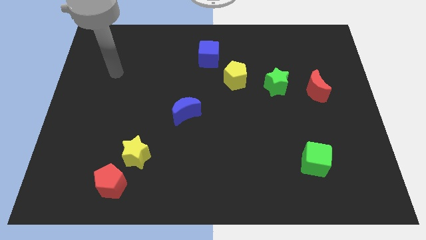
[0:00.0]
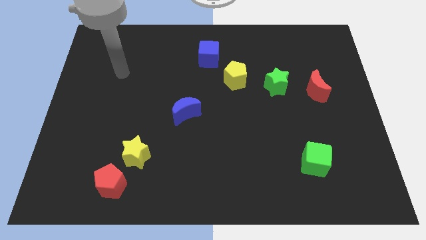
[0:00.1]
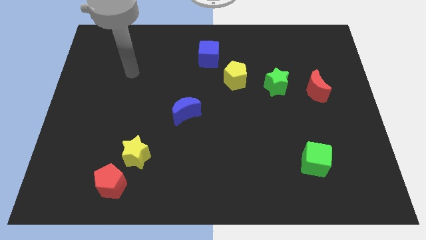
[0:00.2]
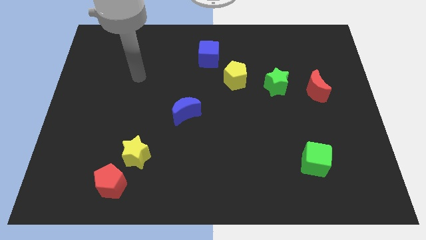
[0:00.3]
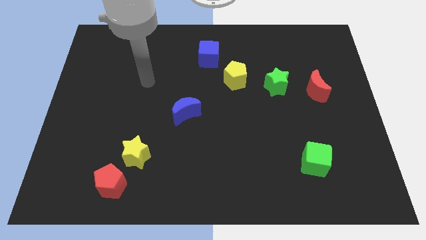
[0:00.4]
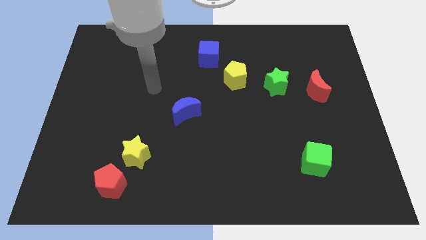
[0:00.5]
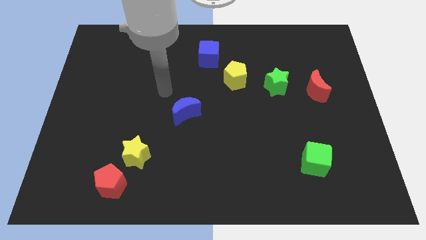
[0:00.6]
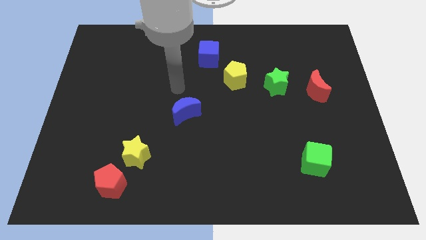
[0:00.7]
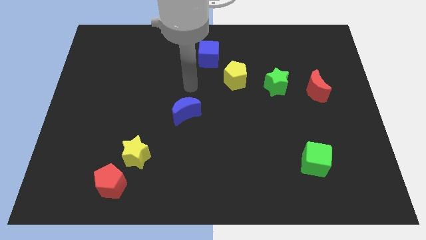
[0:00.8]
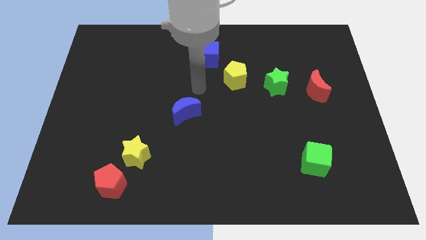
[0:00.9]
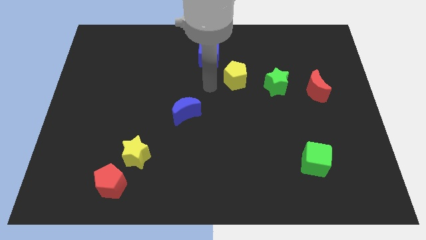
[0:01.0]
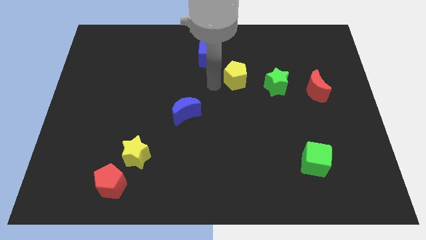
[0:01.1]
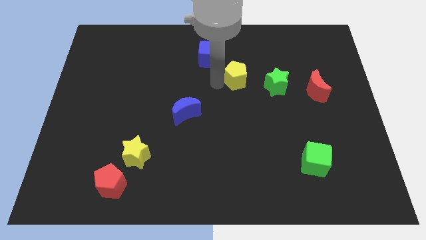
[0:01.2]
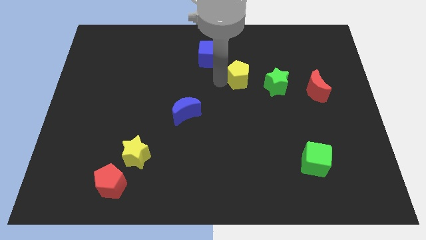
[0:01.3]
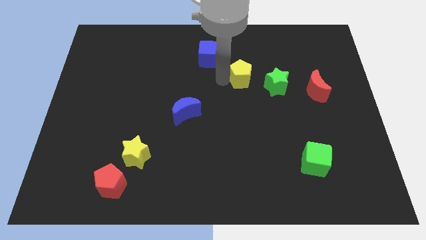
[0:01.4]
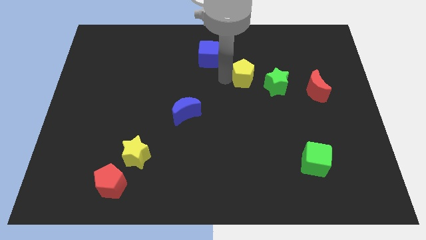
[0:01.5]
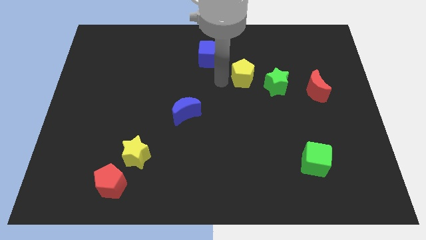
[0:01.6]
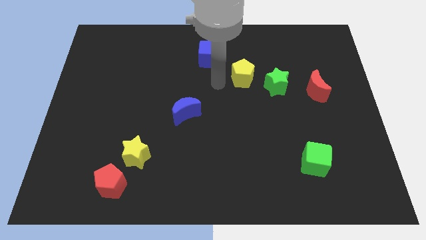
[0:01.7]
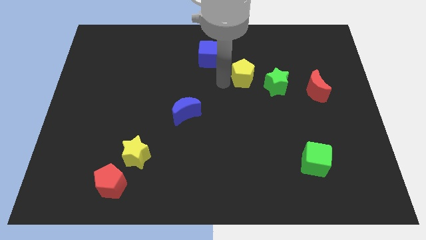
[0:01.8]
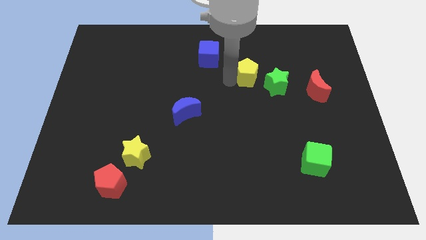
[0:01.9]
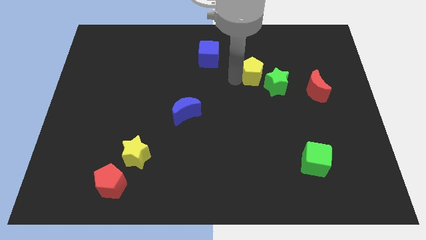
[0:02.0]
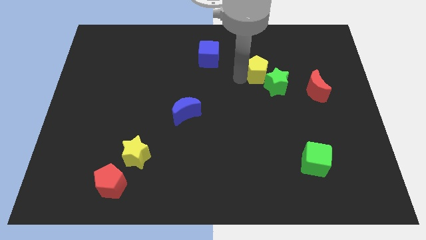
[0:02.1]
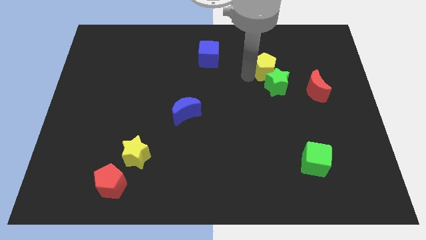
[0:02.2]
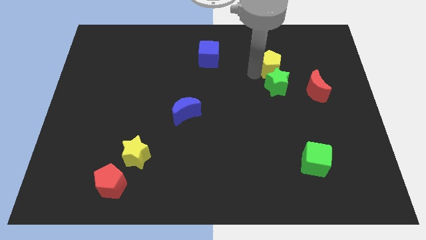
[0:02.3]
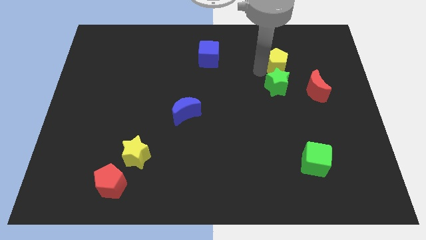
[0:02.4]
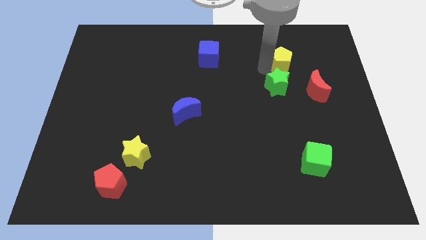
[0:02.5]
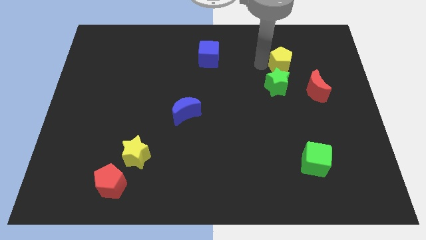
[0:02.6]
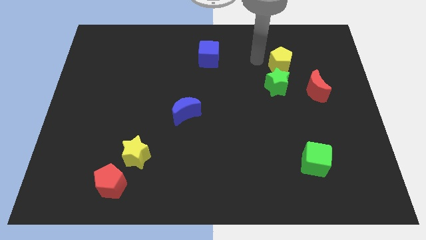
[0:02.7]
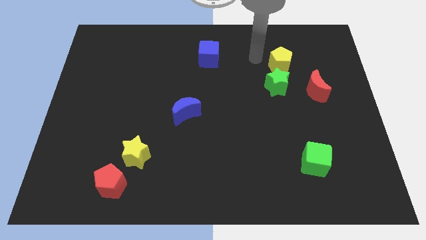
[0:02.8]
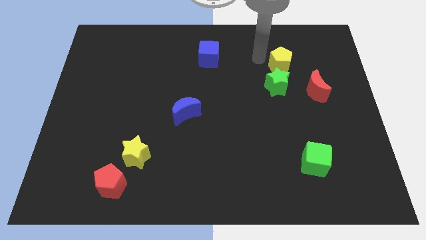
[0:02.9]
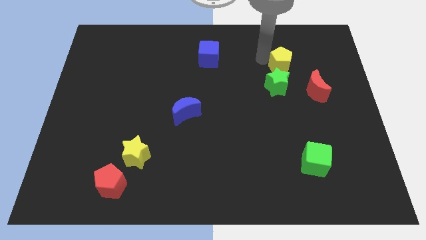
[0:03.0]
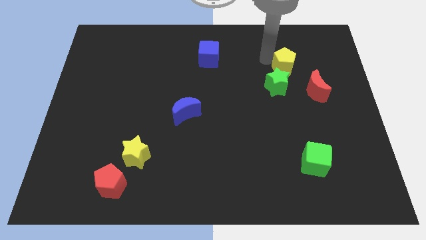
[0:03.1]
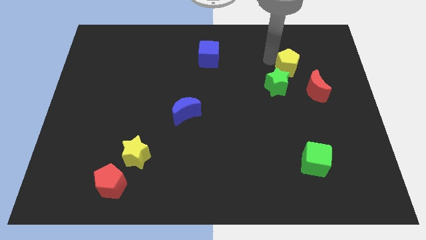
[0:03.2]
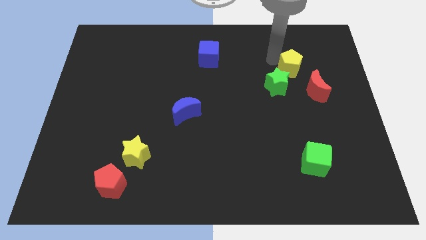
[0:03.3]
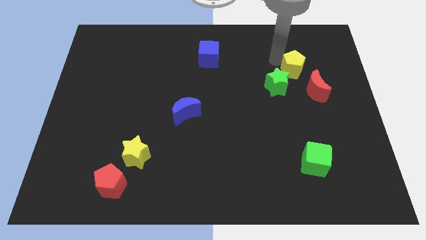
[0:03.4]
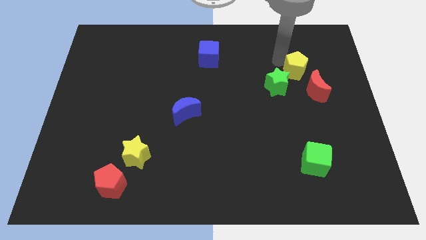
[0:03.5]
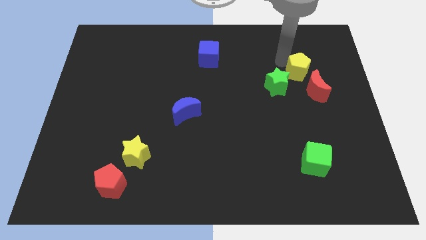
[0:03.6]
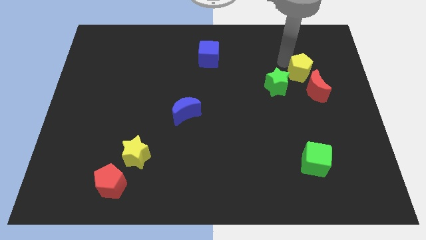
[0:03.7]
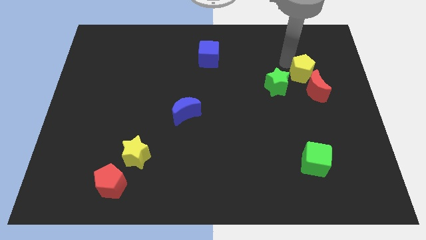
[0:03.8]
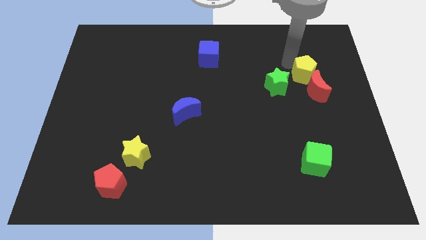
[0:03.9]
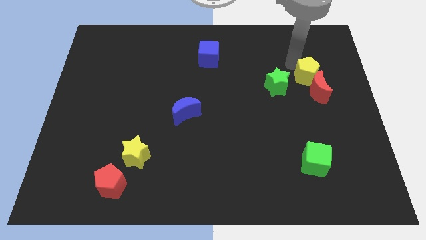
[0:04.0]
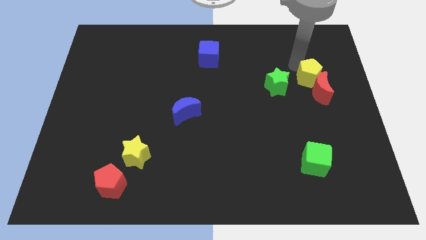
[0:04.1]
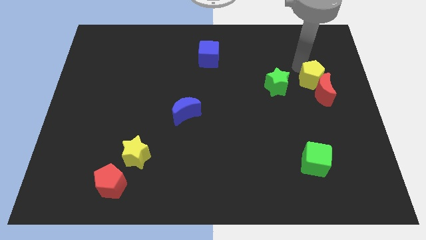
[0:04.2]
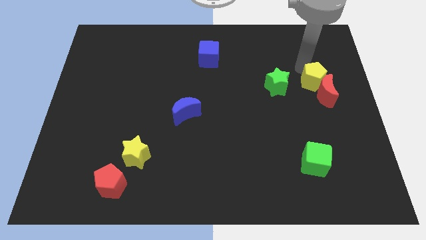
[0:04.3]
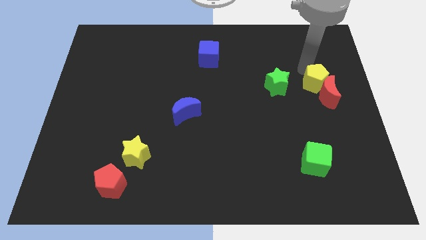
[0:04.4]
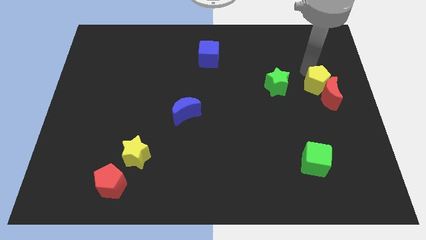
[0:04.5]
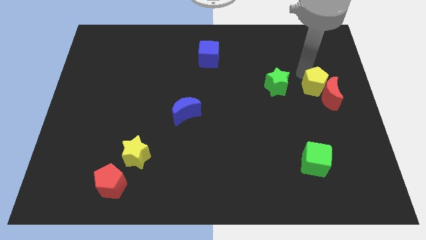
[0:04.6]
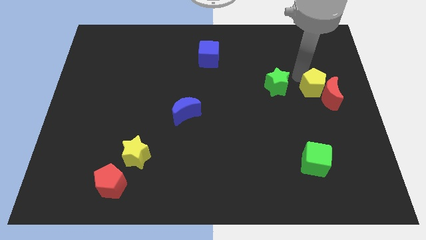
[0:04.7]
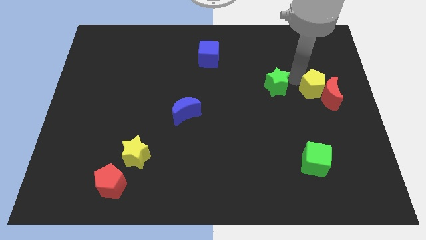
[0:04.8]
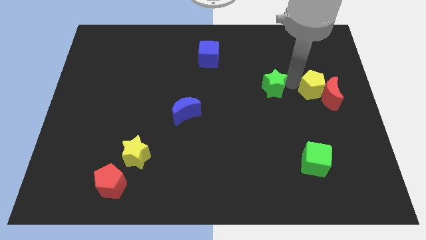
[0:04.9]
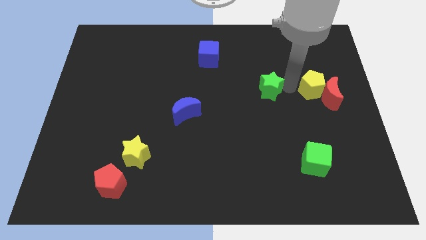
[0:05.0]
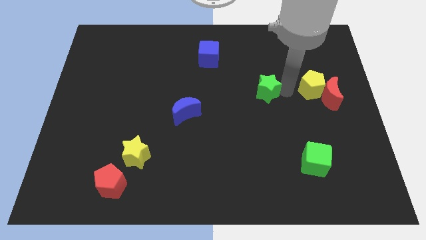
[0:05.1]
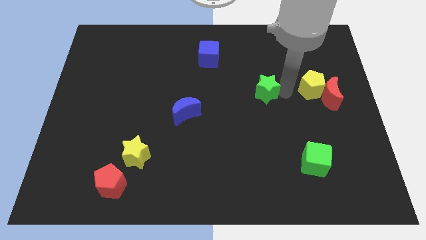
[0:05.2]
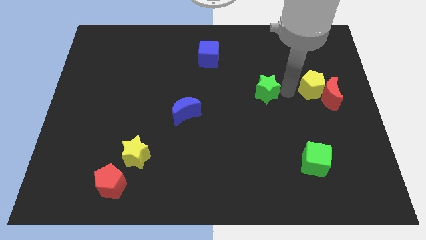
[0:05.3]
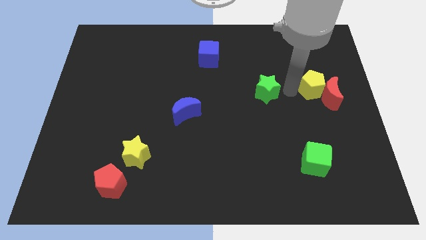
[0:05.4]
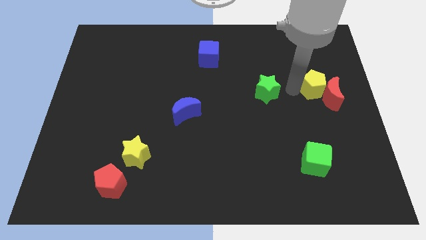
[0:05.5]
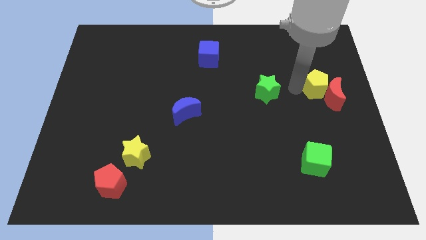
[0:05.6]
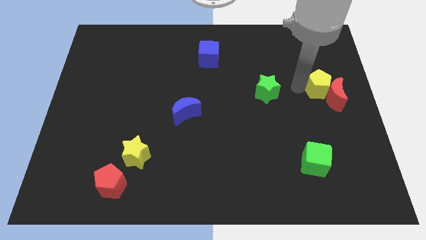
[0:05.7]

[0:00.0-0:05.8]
slide the yellow pentagon to the right side of the board
